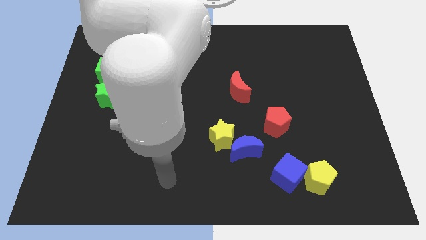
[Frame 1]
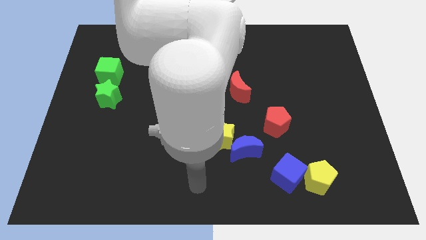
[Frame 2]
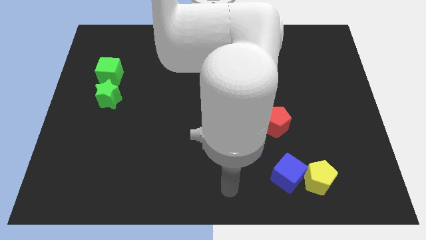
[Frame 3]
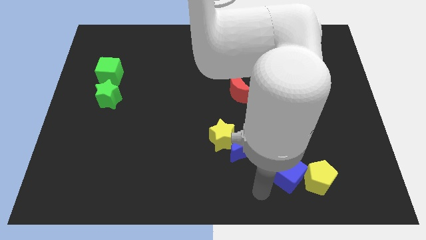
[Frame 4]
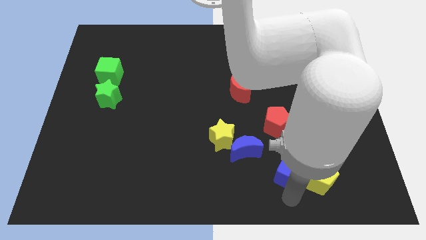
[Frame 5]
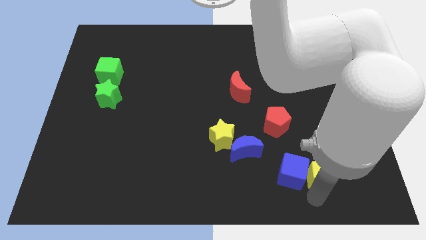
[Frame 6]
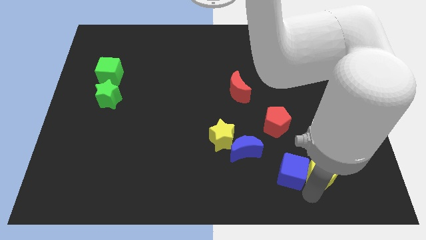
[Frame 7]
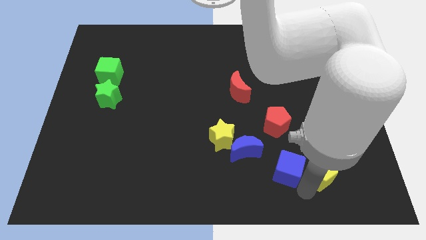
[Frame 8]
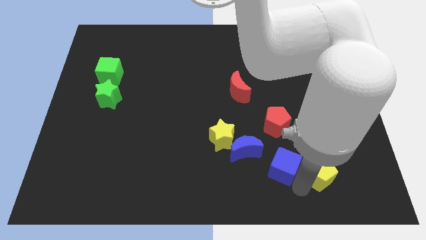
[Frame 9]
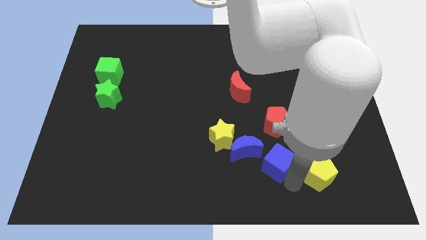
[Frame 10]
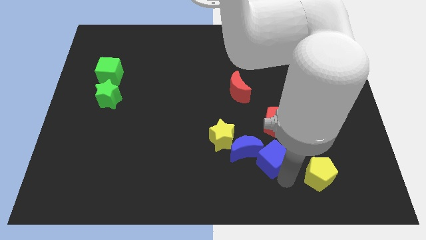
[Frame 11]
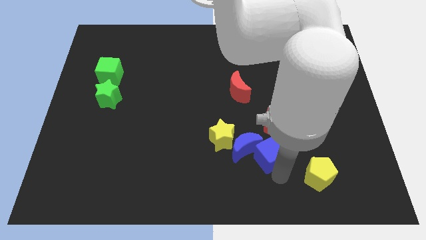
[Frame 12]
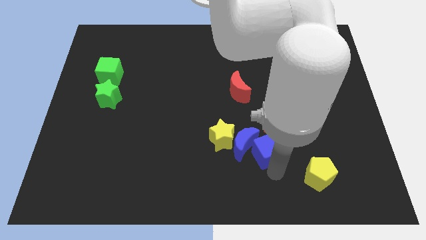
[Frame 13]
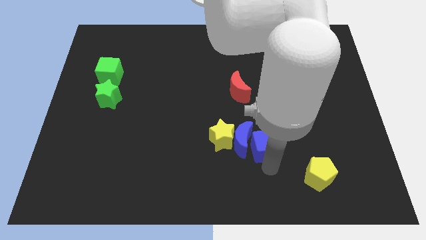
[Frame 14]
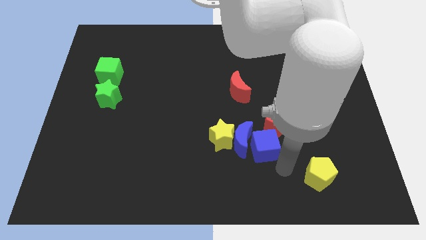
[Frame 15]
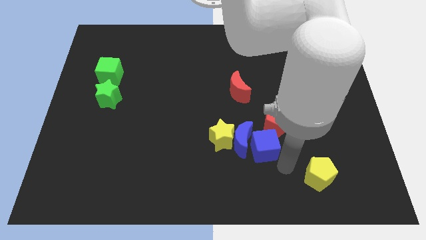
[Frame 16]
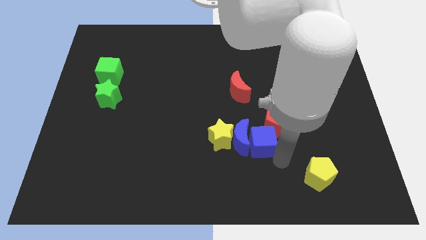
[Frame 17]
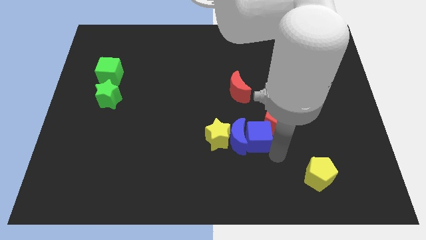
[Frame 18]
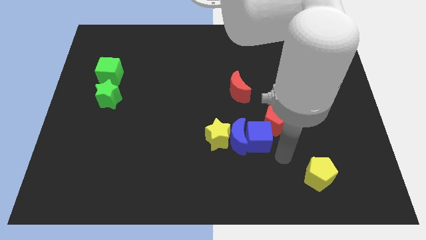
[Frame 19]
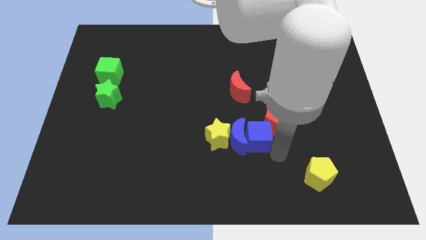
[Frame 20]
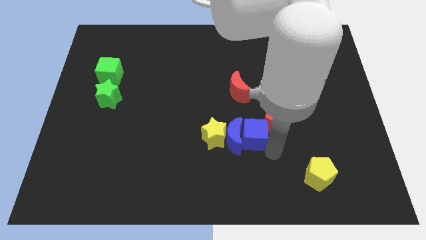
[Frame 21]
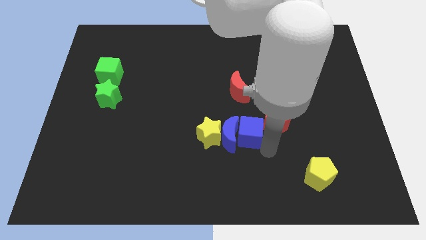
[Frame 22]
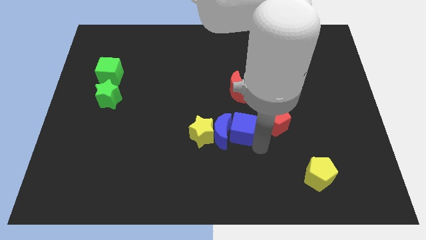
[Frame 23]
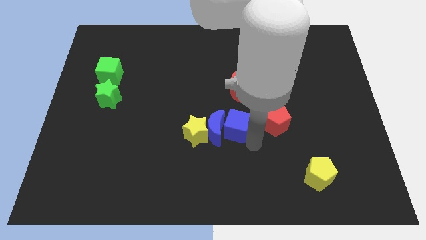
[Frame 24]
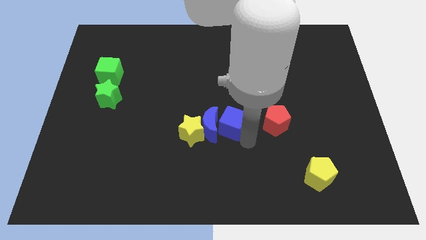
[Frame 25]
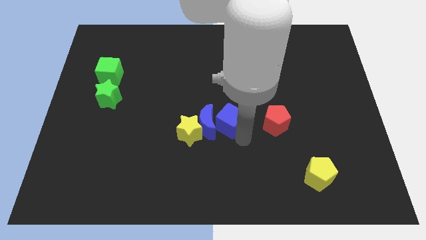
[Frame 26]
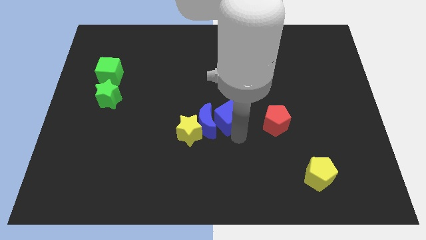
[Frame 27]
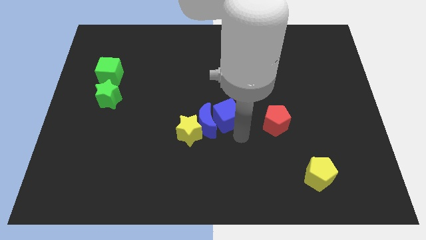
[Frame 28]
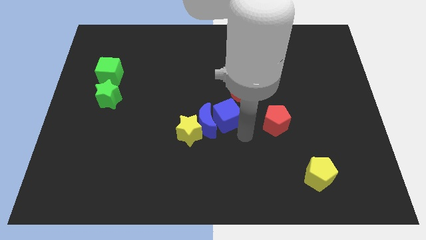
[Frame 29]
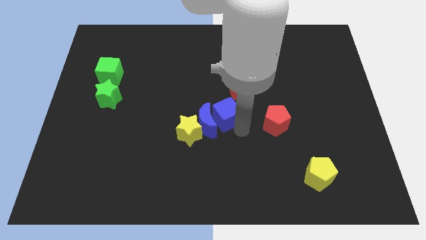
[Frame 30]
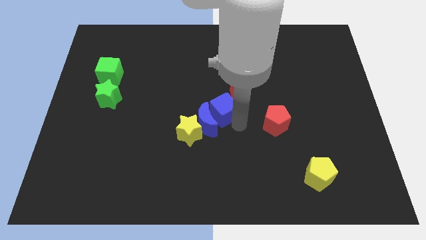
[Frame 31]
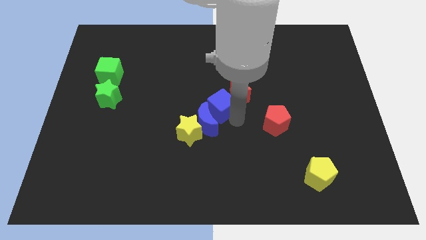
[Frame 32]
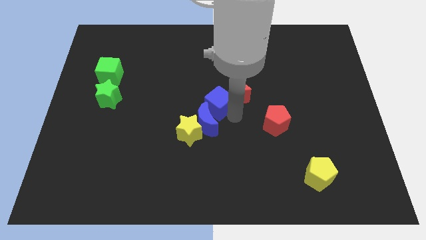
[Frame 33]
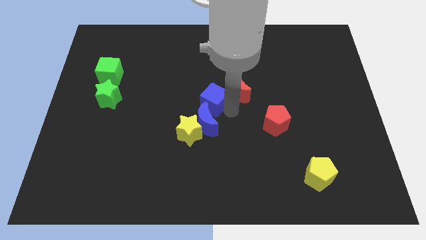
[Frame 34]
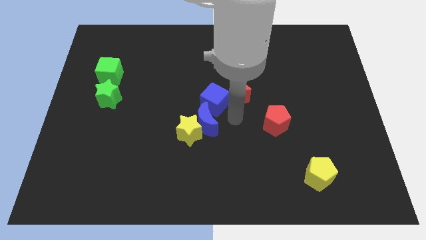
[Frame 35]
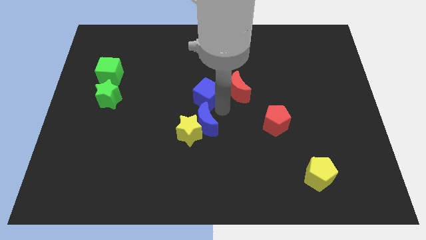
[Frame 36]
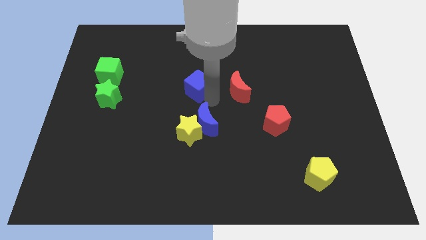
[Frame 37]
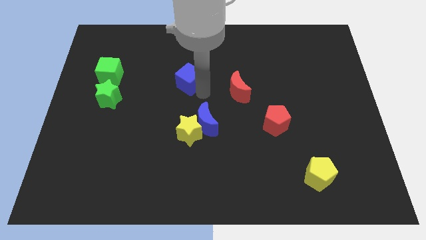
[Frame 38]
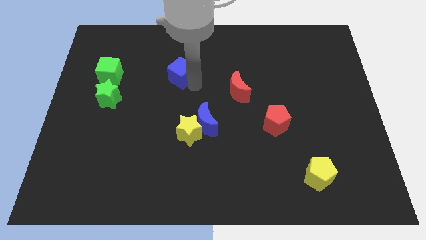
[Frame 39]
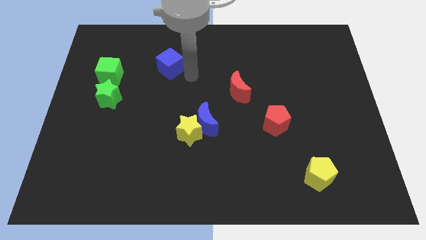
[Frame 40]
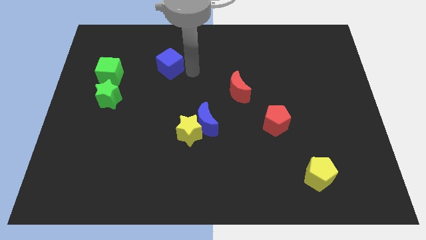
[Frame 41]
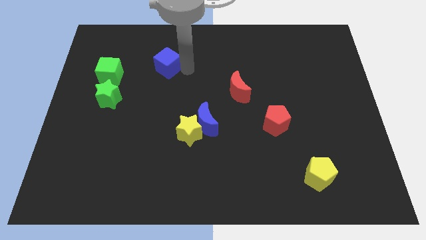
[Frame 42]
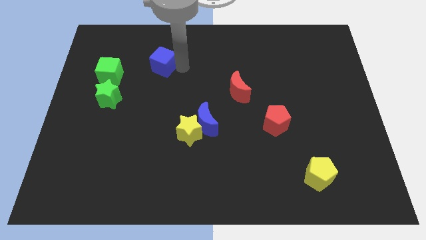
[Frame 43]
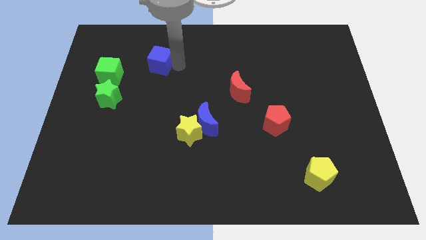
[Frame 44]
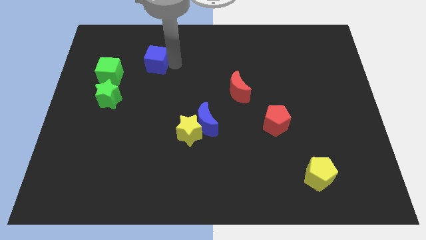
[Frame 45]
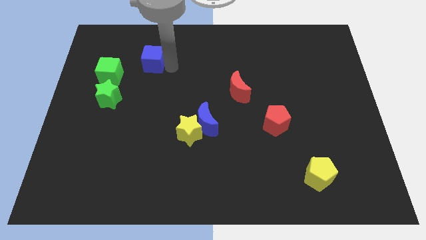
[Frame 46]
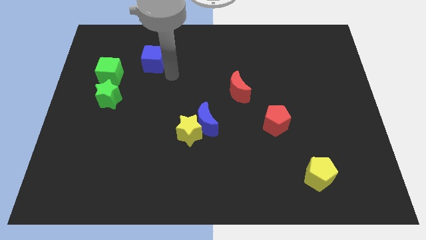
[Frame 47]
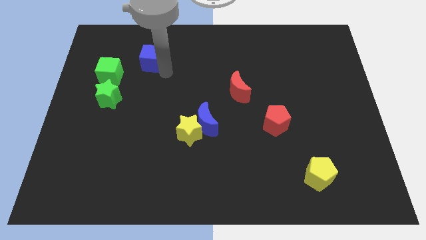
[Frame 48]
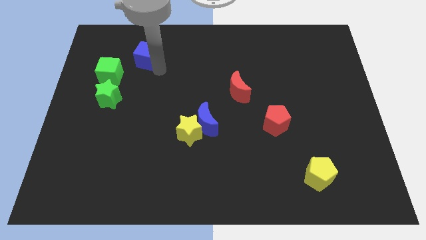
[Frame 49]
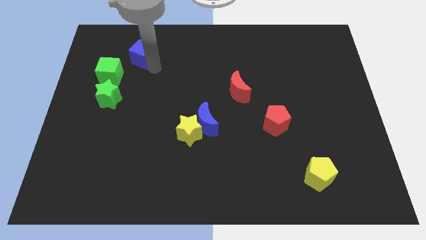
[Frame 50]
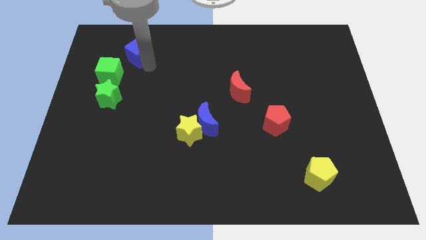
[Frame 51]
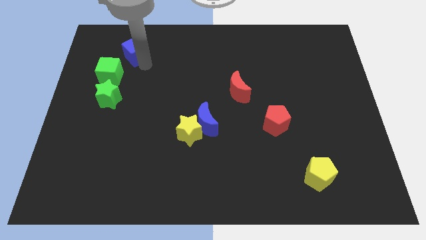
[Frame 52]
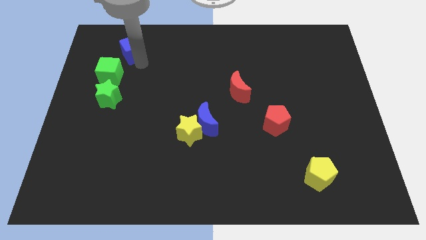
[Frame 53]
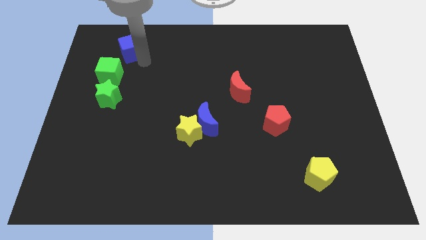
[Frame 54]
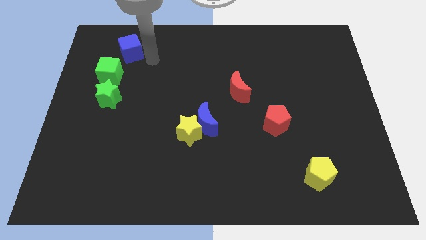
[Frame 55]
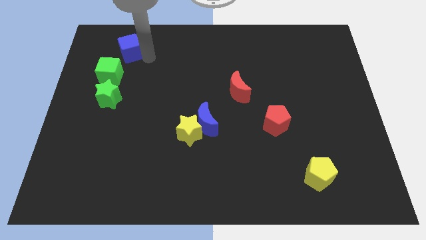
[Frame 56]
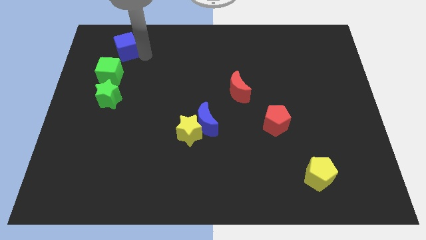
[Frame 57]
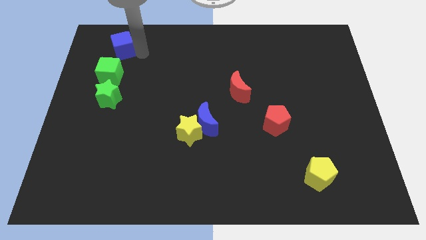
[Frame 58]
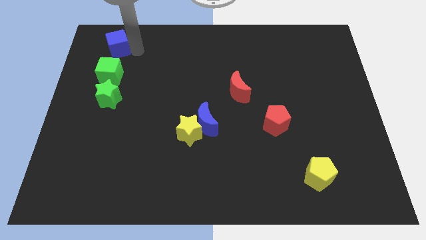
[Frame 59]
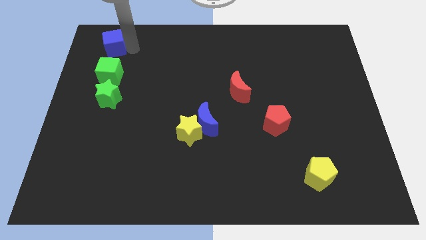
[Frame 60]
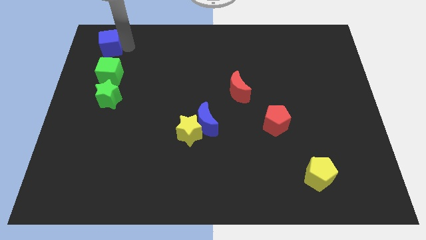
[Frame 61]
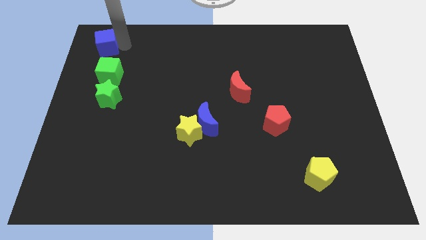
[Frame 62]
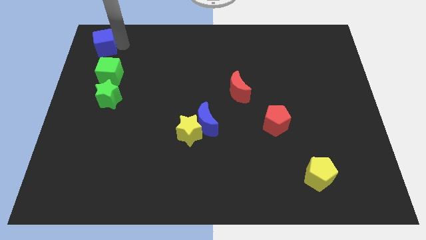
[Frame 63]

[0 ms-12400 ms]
push the blue cube to the top left corner

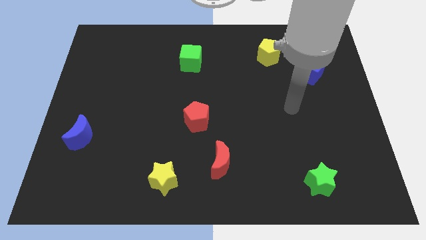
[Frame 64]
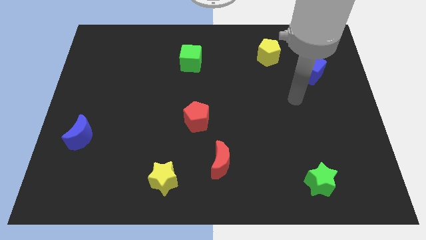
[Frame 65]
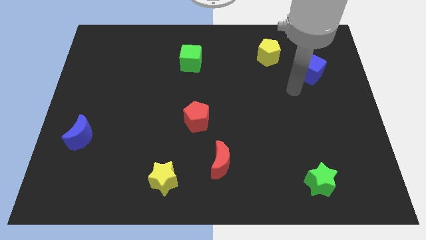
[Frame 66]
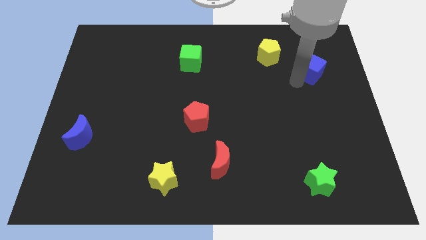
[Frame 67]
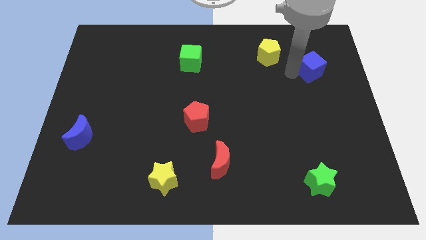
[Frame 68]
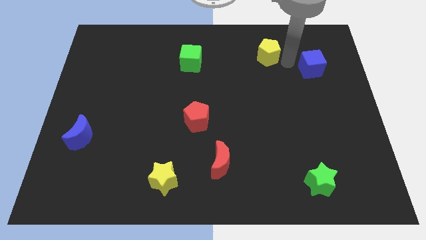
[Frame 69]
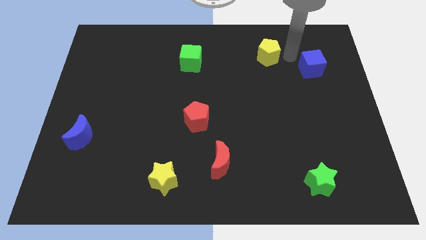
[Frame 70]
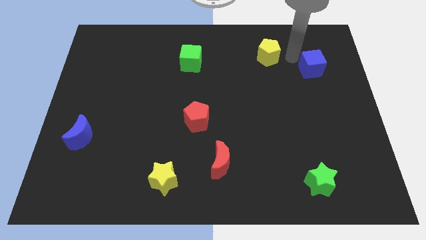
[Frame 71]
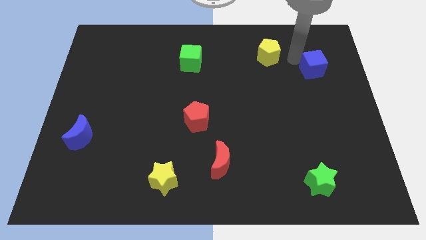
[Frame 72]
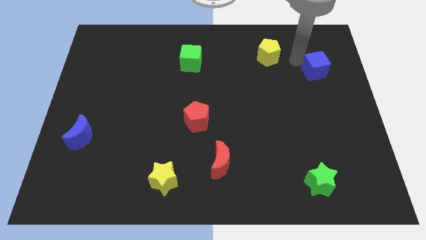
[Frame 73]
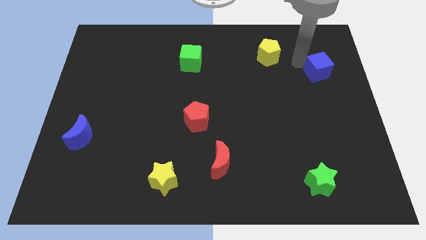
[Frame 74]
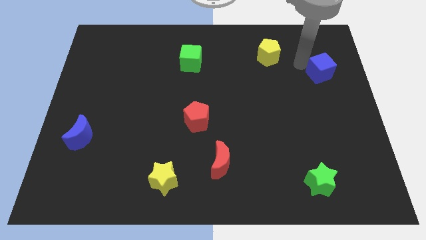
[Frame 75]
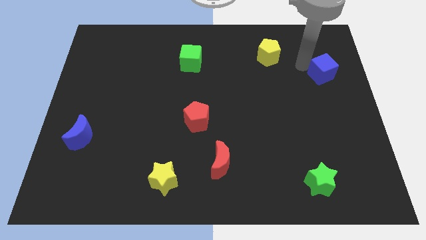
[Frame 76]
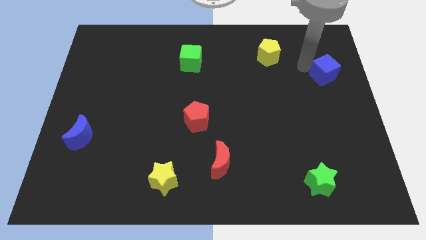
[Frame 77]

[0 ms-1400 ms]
slide the blue cube to the center right
